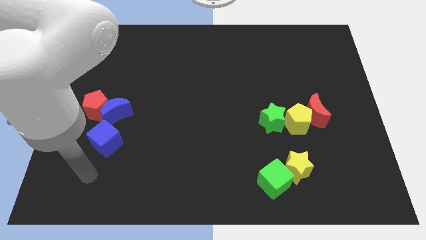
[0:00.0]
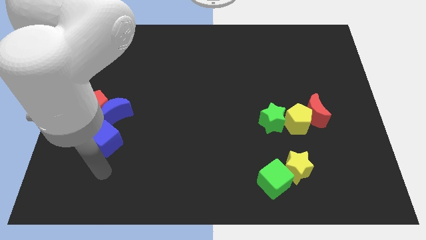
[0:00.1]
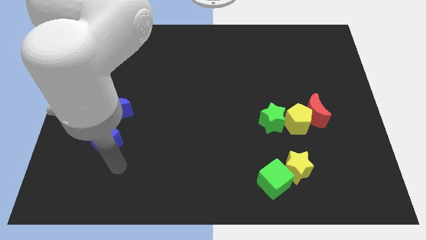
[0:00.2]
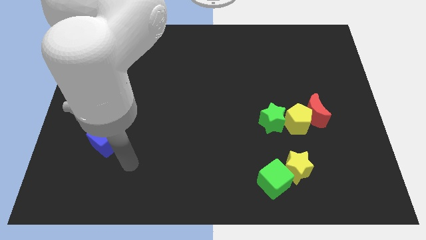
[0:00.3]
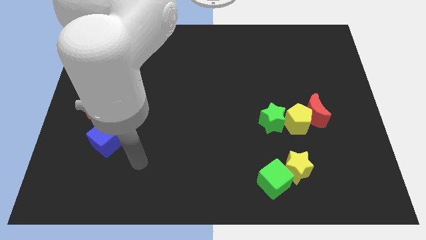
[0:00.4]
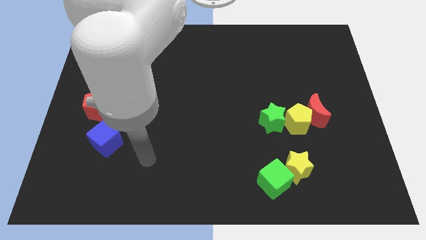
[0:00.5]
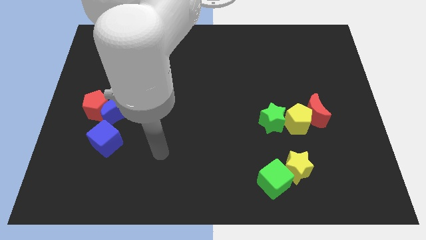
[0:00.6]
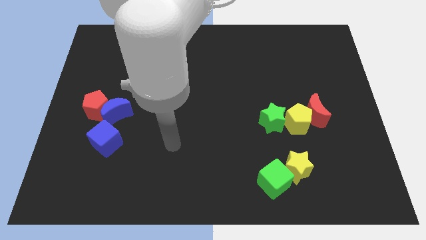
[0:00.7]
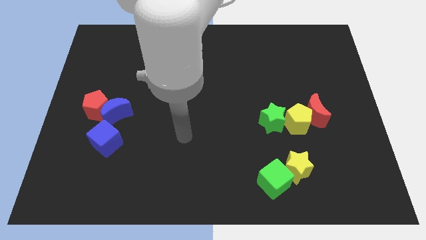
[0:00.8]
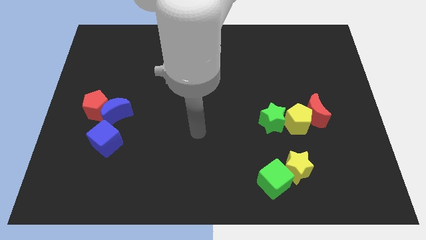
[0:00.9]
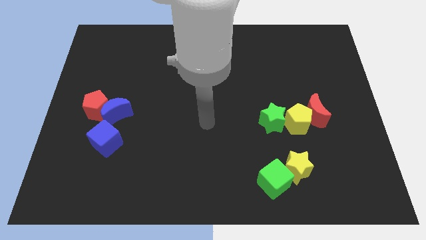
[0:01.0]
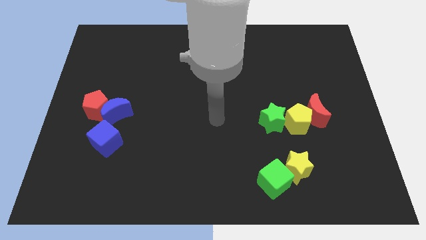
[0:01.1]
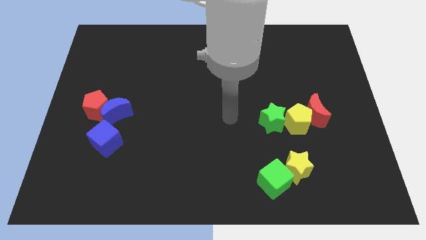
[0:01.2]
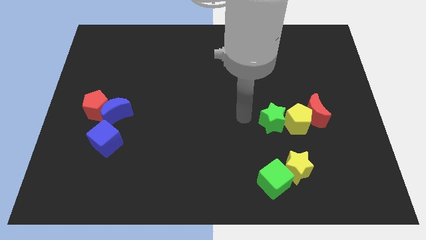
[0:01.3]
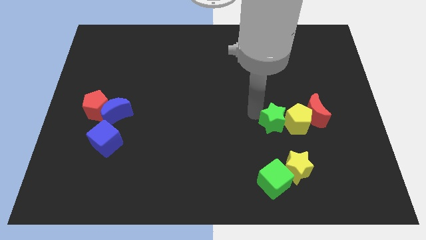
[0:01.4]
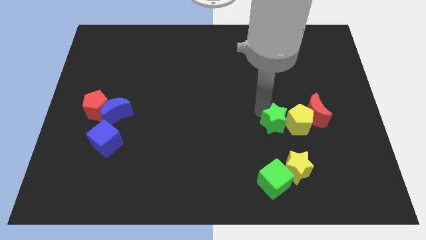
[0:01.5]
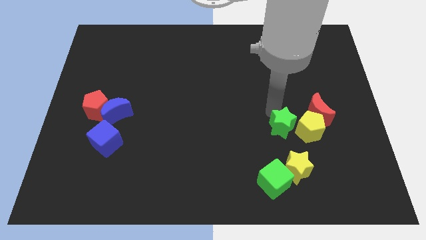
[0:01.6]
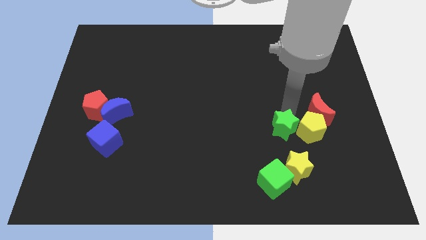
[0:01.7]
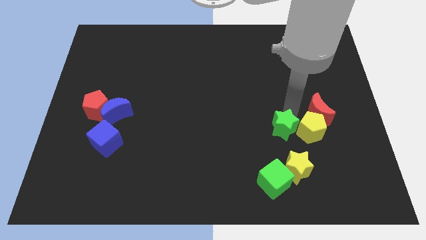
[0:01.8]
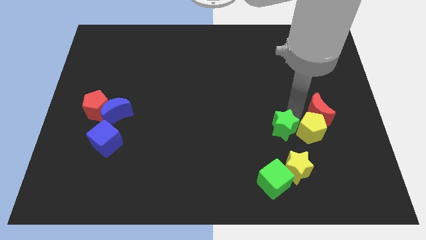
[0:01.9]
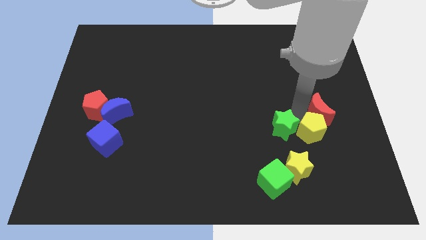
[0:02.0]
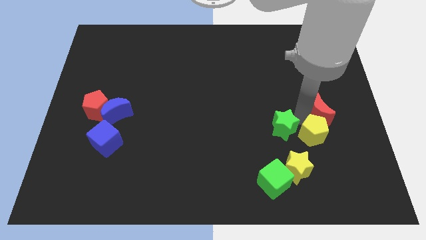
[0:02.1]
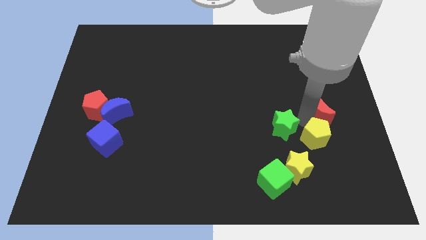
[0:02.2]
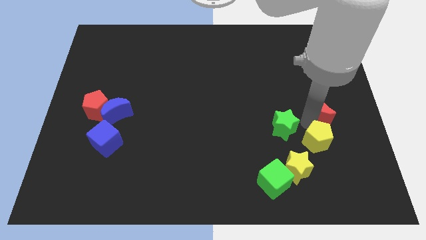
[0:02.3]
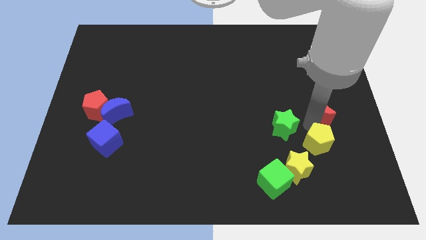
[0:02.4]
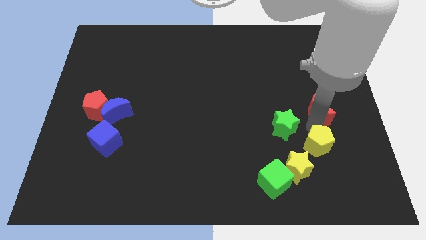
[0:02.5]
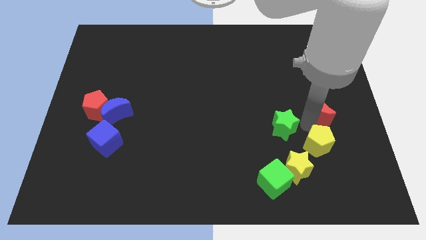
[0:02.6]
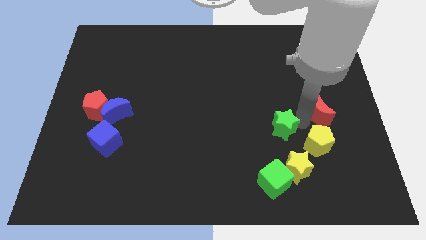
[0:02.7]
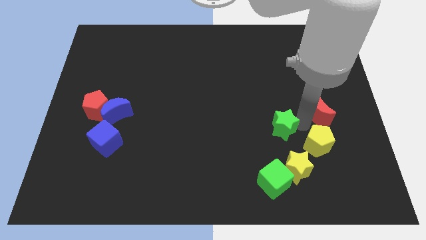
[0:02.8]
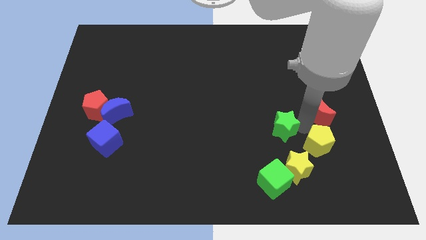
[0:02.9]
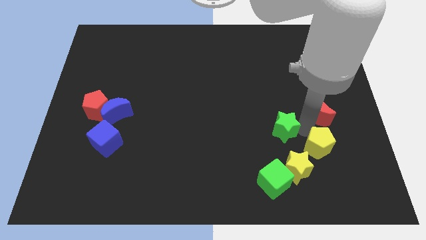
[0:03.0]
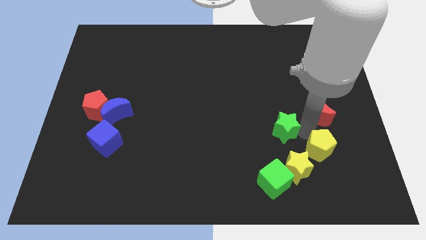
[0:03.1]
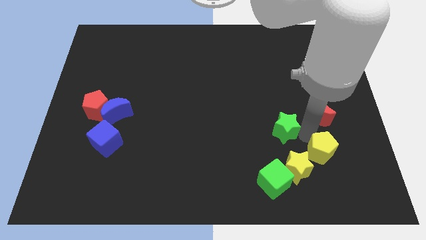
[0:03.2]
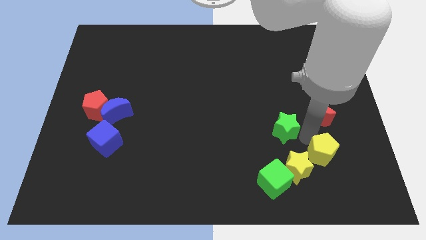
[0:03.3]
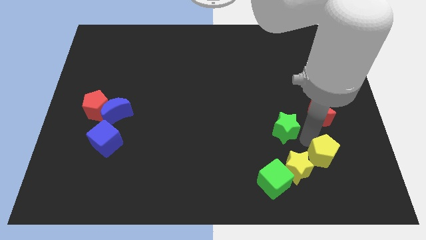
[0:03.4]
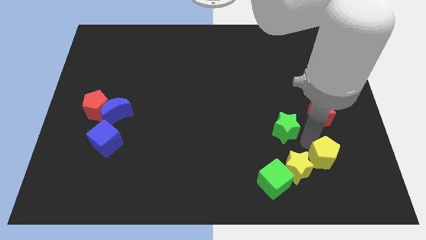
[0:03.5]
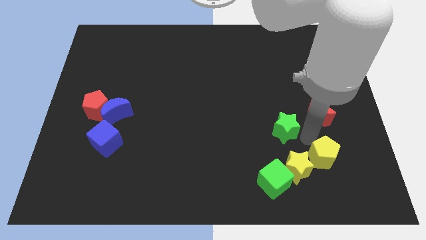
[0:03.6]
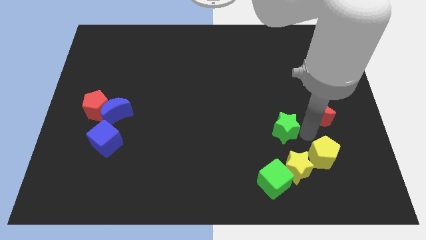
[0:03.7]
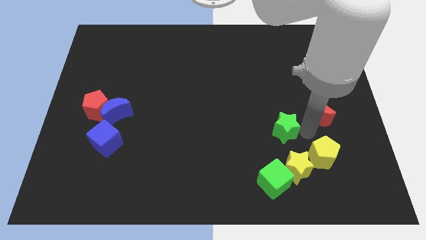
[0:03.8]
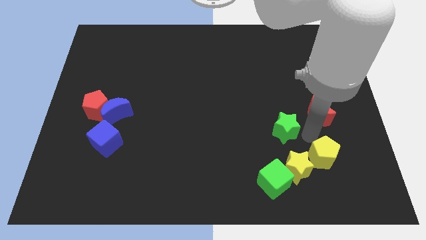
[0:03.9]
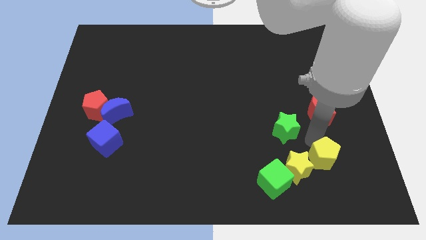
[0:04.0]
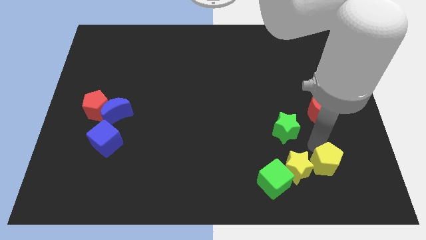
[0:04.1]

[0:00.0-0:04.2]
pull the yellow pentagon apart from the red moon and green star

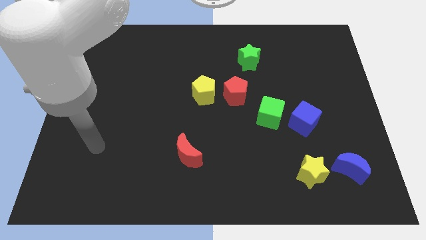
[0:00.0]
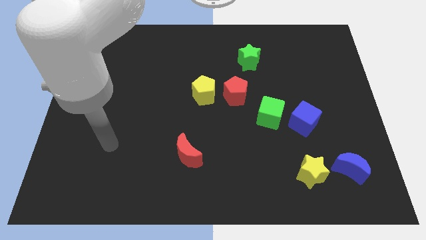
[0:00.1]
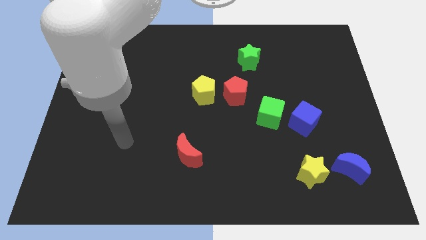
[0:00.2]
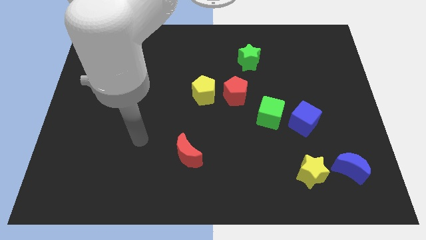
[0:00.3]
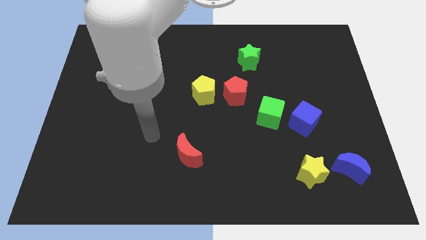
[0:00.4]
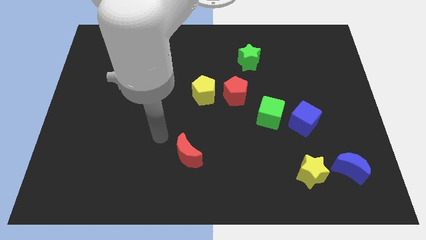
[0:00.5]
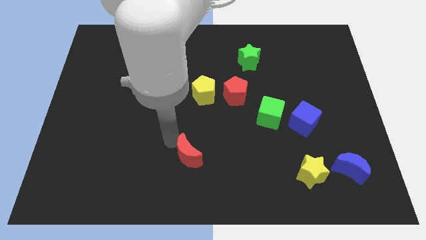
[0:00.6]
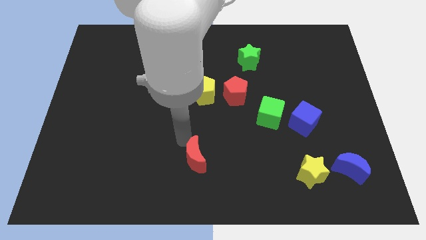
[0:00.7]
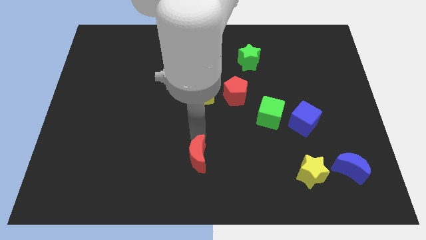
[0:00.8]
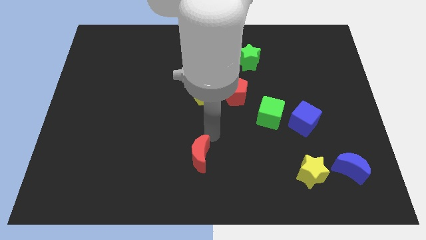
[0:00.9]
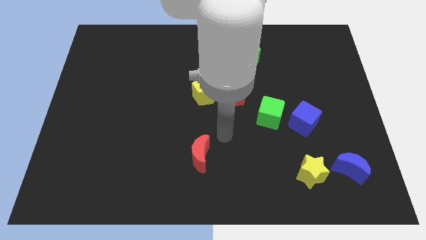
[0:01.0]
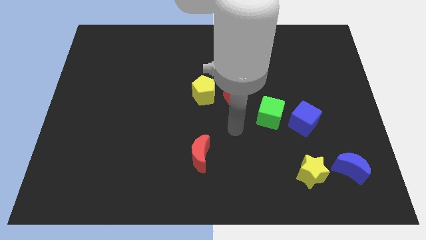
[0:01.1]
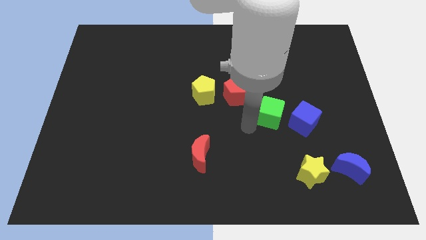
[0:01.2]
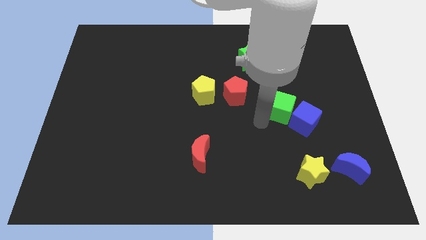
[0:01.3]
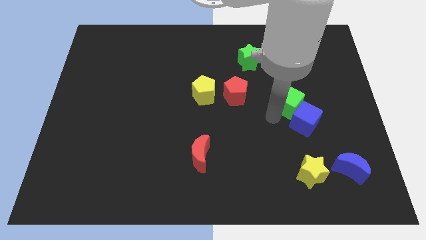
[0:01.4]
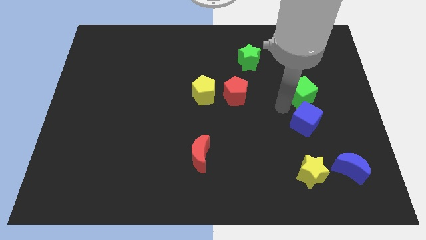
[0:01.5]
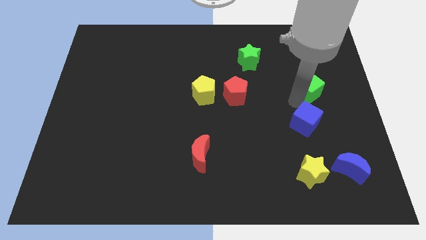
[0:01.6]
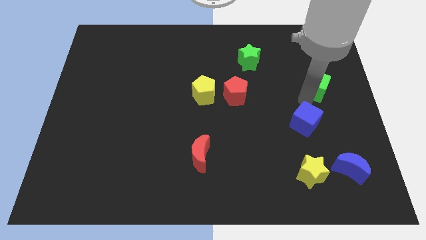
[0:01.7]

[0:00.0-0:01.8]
pull the blue cube apart from the green cube

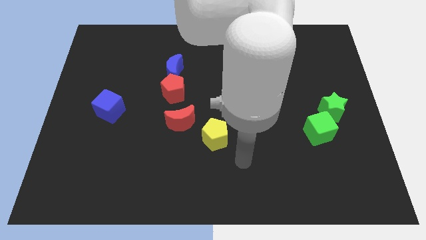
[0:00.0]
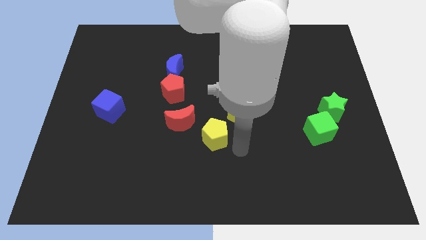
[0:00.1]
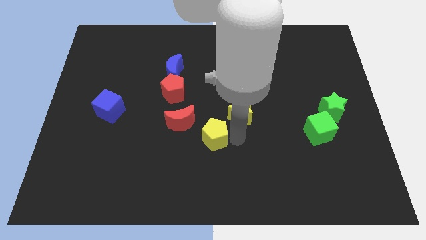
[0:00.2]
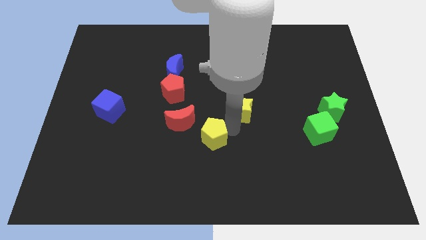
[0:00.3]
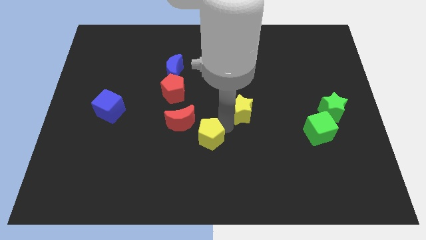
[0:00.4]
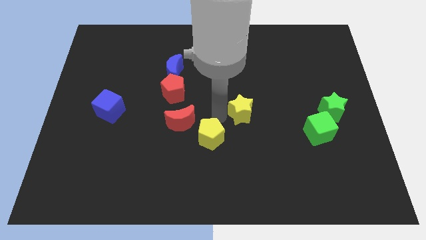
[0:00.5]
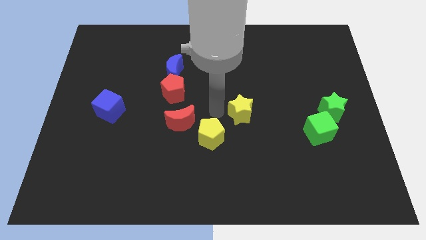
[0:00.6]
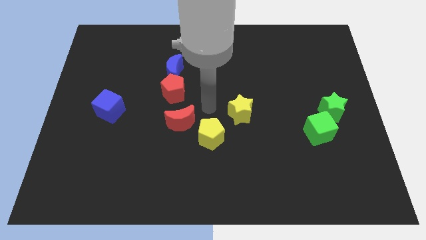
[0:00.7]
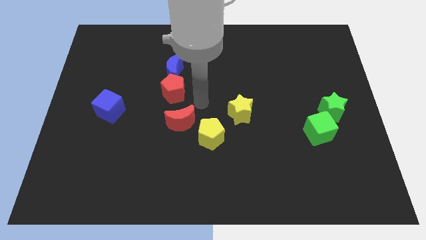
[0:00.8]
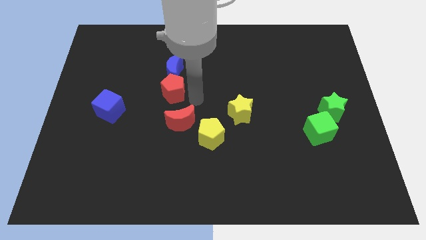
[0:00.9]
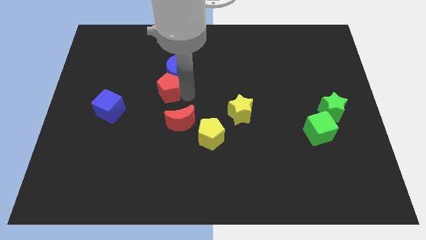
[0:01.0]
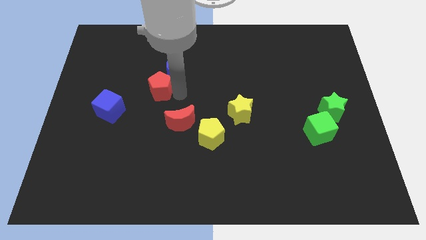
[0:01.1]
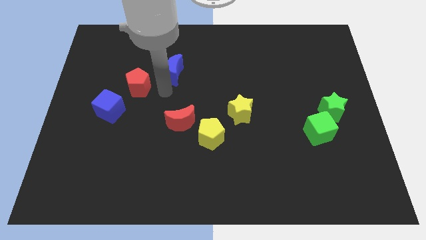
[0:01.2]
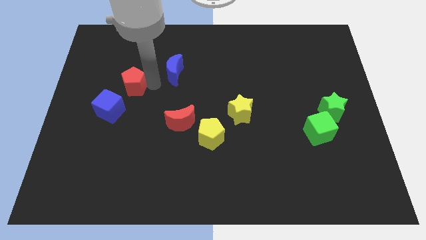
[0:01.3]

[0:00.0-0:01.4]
separate the blue moon from the red pentagon

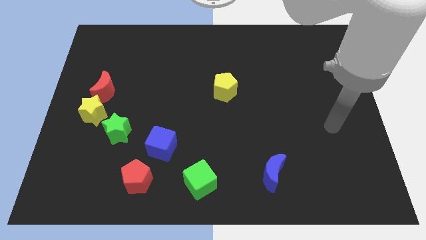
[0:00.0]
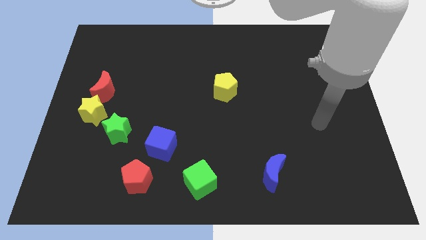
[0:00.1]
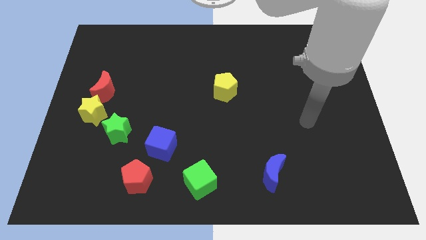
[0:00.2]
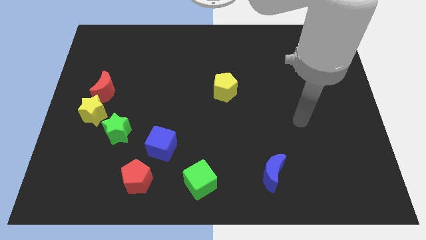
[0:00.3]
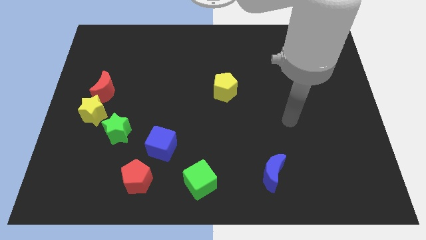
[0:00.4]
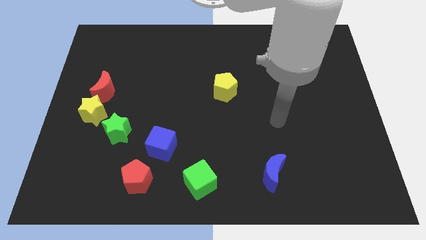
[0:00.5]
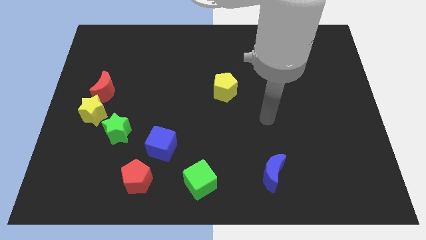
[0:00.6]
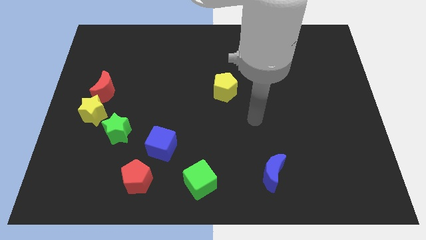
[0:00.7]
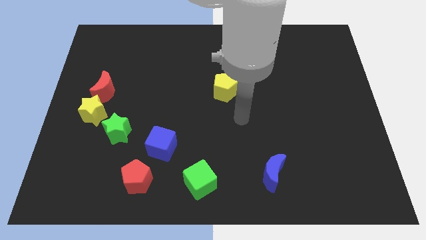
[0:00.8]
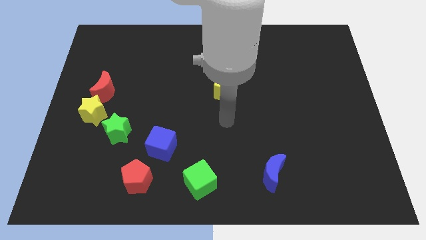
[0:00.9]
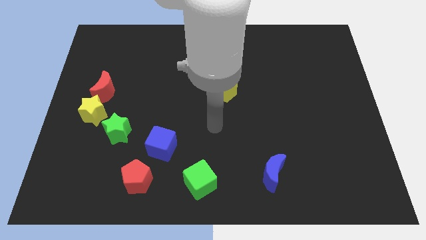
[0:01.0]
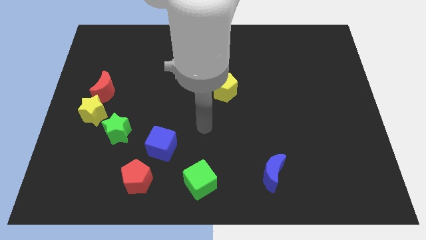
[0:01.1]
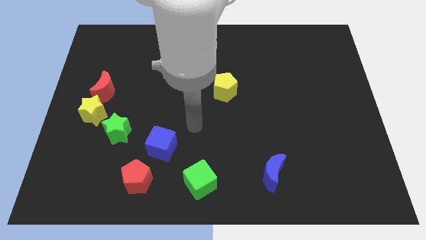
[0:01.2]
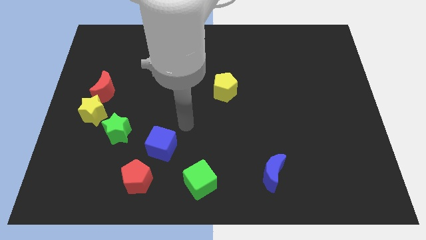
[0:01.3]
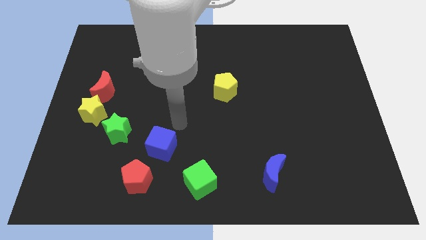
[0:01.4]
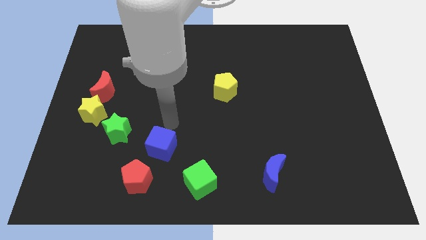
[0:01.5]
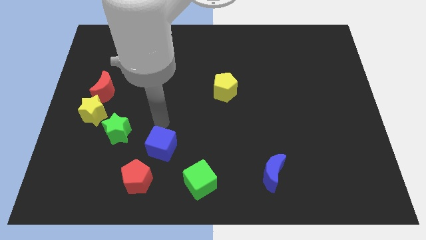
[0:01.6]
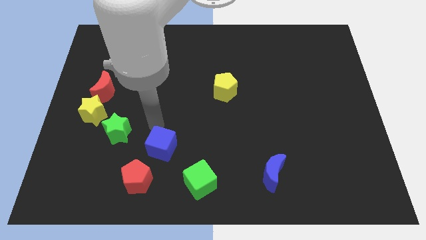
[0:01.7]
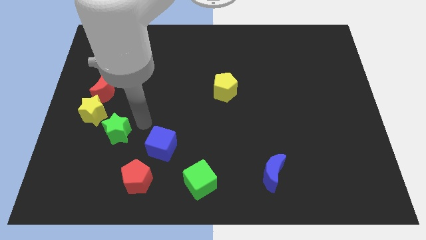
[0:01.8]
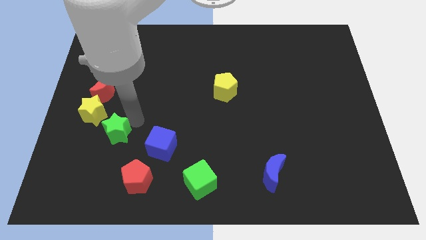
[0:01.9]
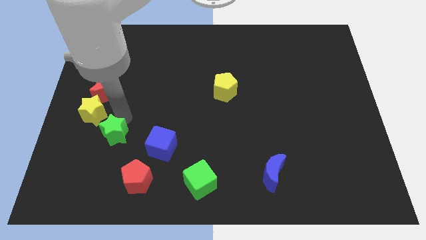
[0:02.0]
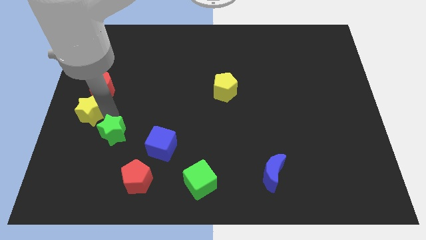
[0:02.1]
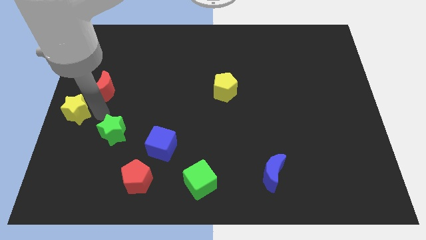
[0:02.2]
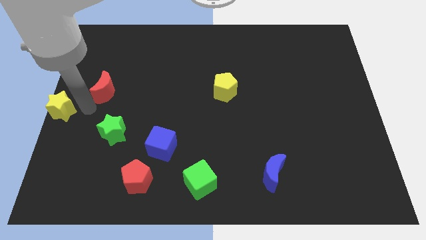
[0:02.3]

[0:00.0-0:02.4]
move the red moon away from the yellow star
